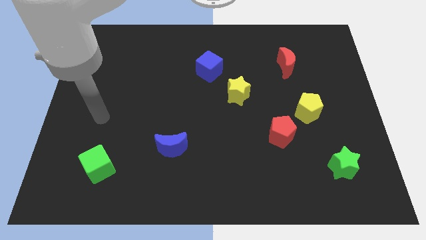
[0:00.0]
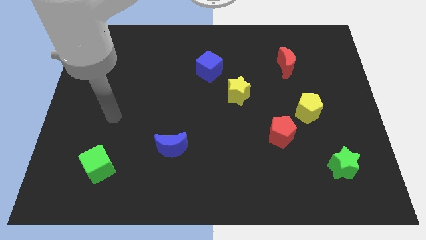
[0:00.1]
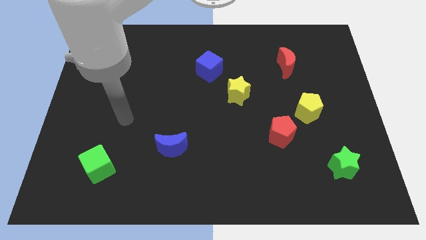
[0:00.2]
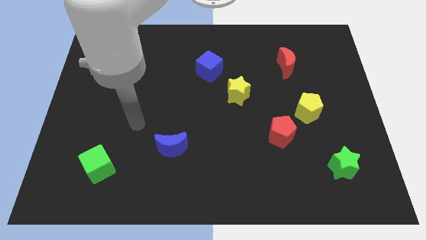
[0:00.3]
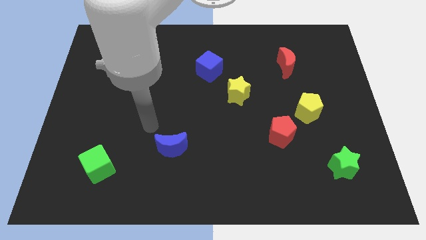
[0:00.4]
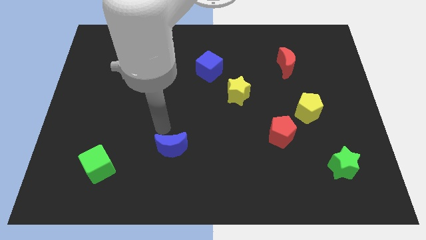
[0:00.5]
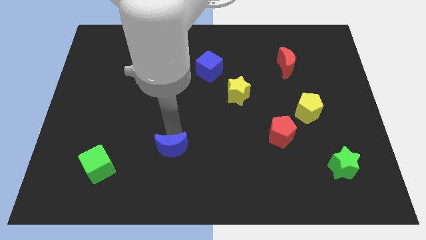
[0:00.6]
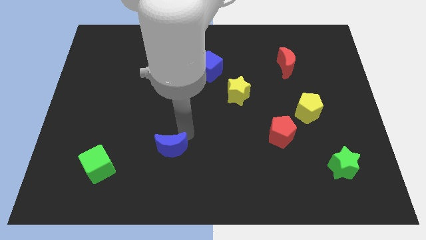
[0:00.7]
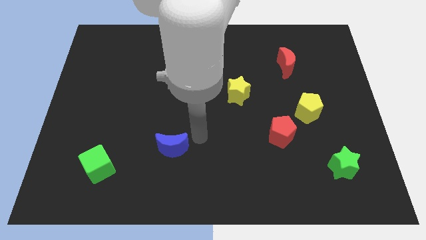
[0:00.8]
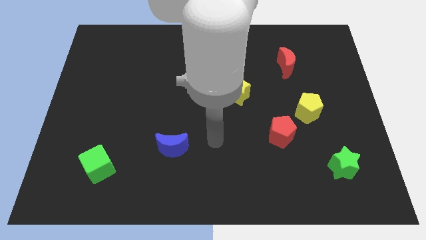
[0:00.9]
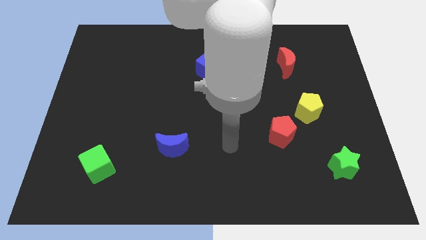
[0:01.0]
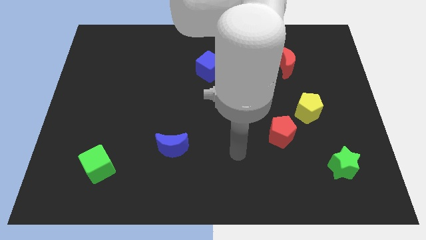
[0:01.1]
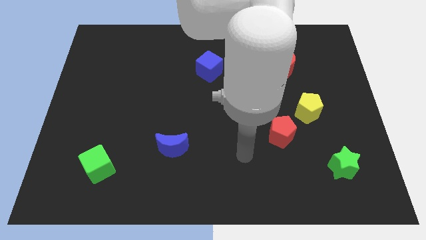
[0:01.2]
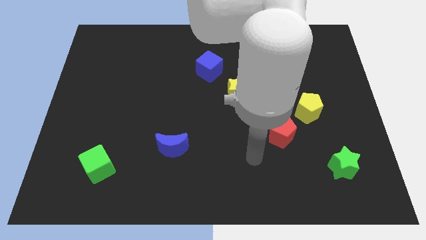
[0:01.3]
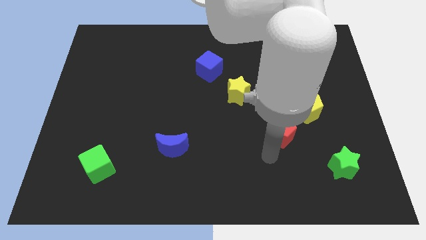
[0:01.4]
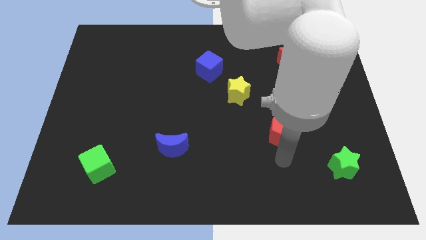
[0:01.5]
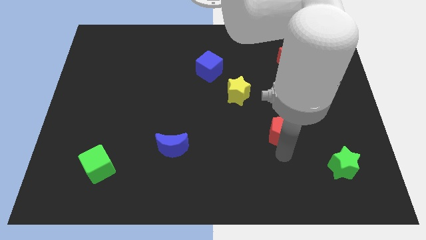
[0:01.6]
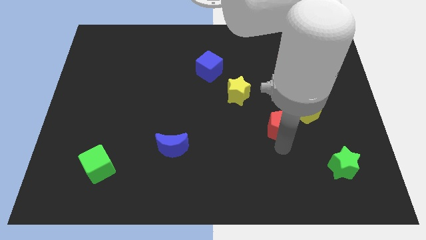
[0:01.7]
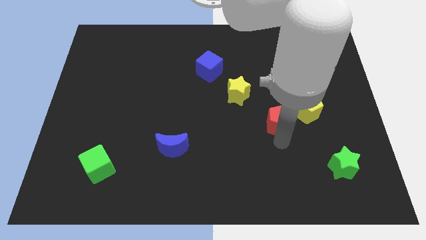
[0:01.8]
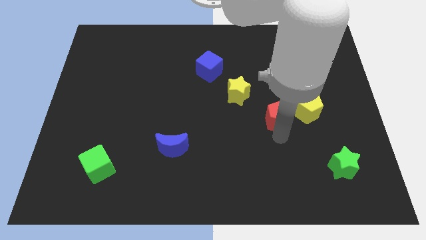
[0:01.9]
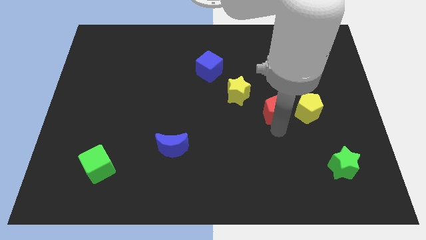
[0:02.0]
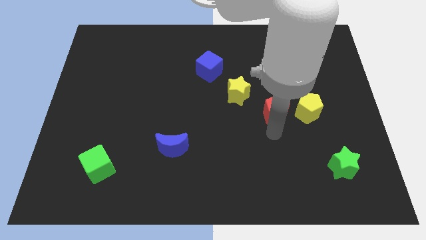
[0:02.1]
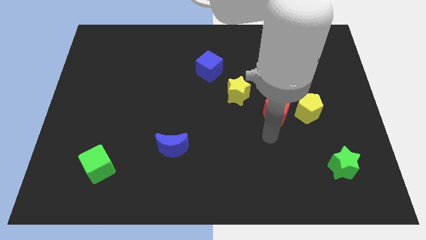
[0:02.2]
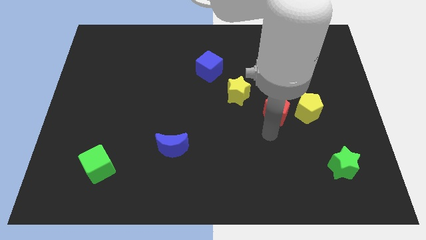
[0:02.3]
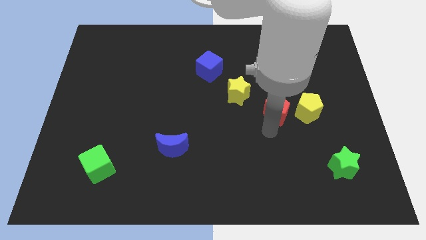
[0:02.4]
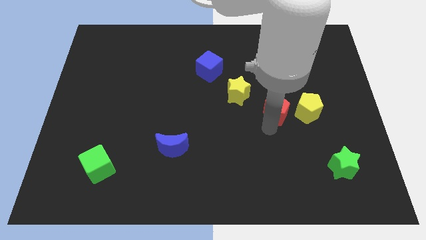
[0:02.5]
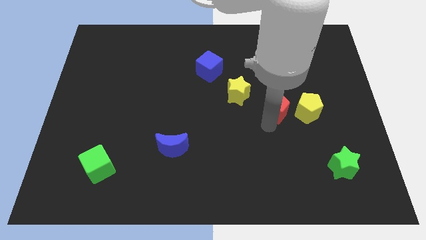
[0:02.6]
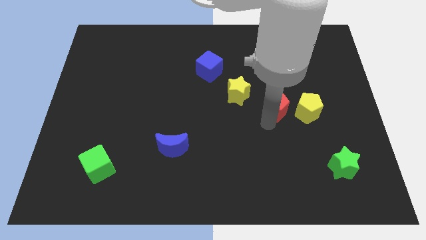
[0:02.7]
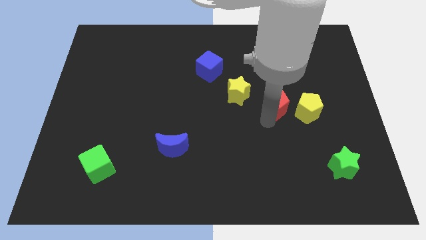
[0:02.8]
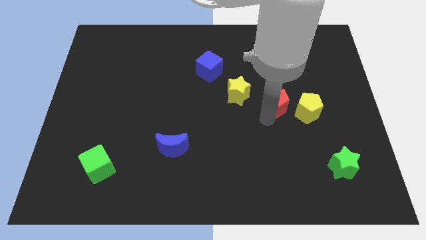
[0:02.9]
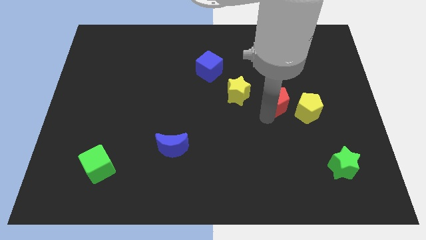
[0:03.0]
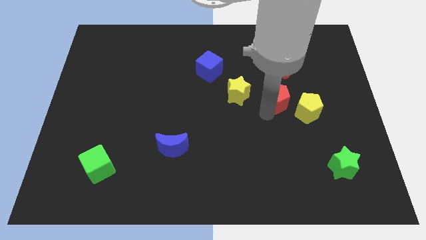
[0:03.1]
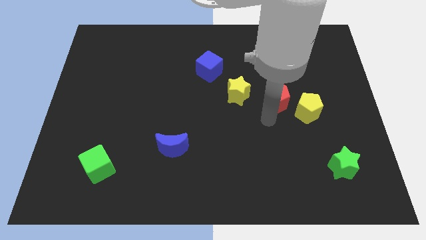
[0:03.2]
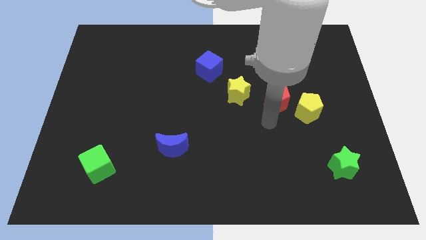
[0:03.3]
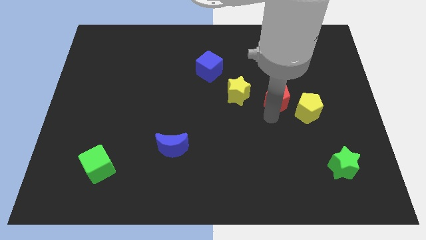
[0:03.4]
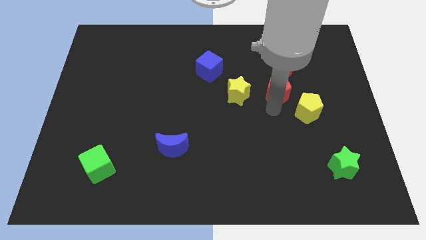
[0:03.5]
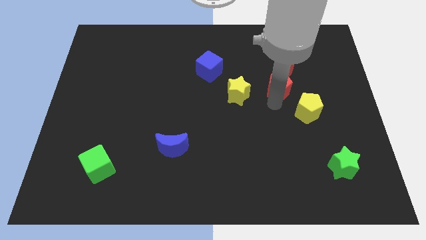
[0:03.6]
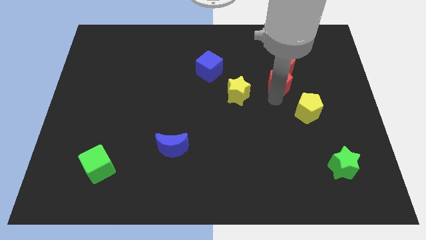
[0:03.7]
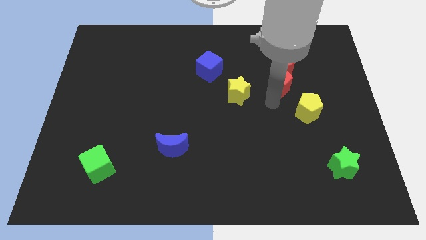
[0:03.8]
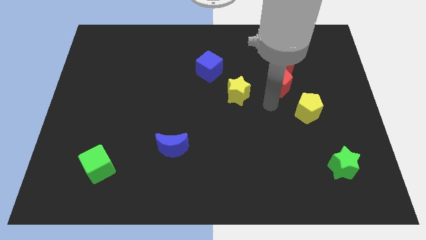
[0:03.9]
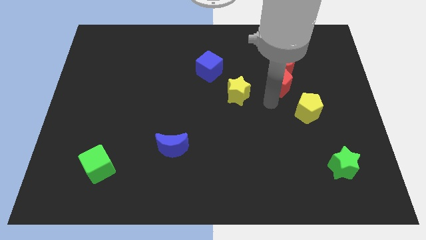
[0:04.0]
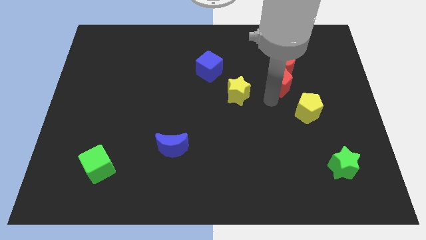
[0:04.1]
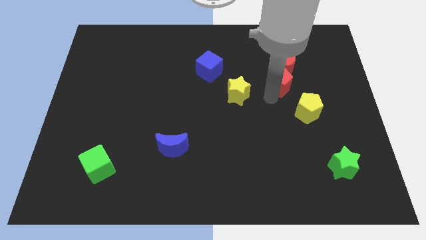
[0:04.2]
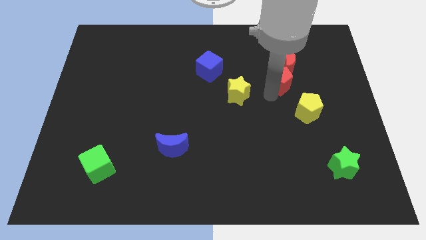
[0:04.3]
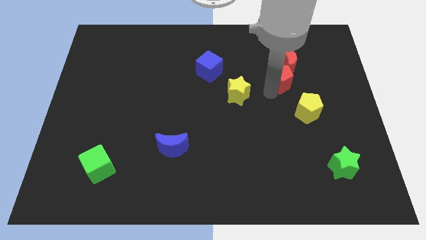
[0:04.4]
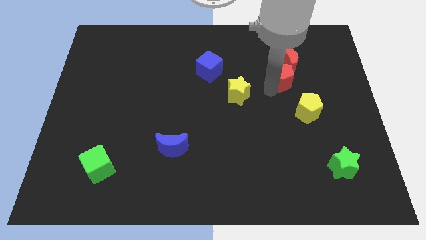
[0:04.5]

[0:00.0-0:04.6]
put the red pentagon to the red moon

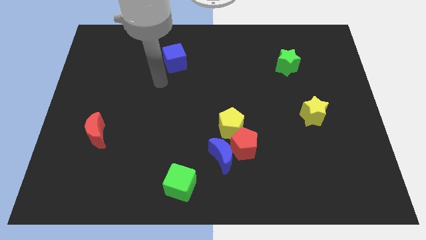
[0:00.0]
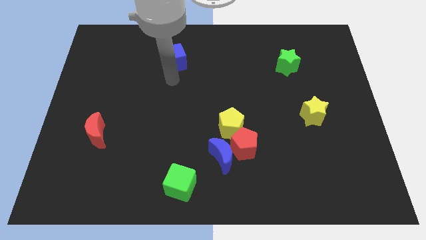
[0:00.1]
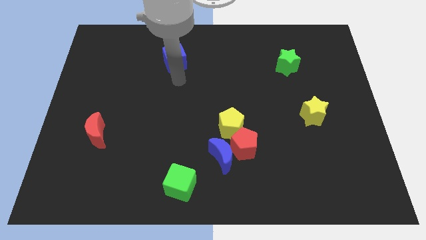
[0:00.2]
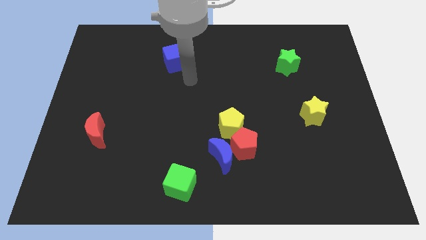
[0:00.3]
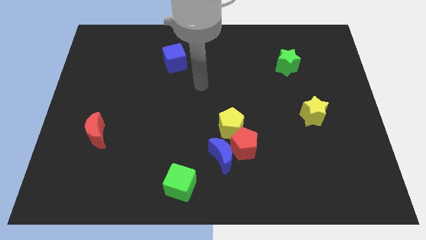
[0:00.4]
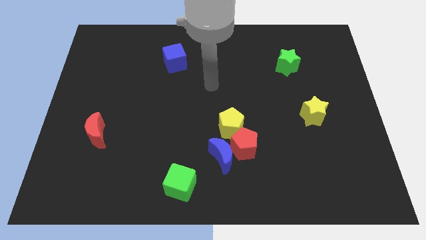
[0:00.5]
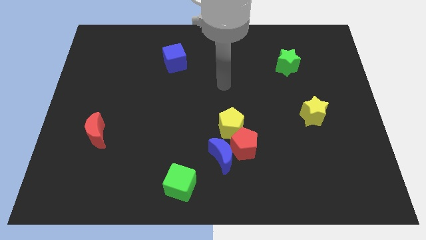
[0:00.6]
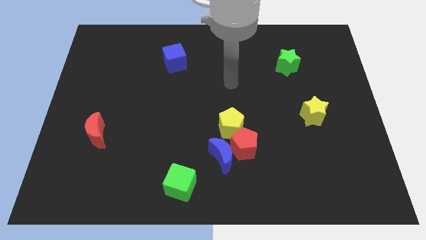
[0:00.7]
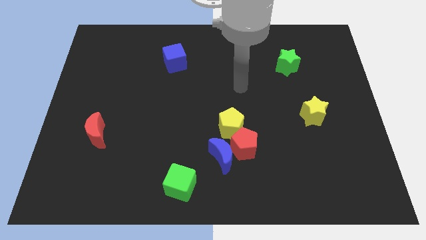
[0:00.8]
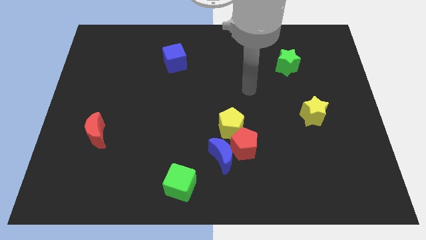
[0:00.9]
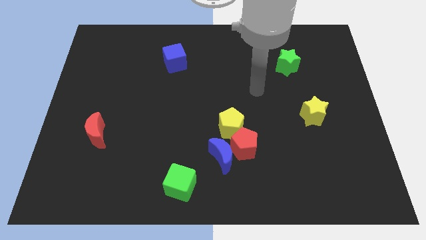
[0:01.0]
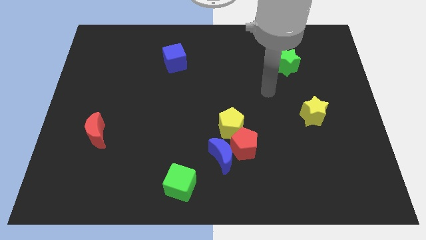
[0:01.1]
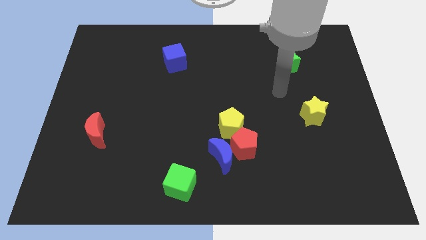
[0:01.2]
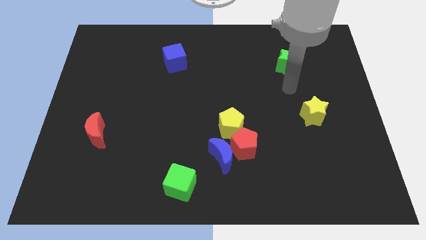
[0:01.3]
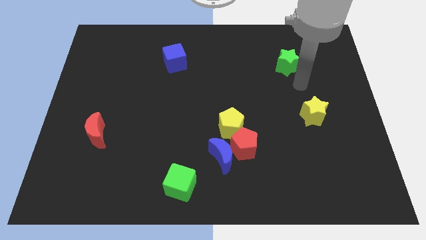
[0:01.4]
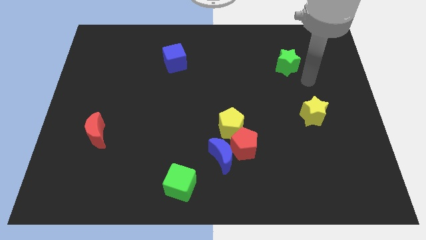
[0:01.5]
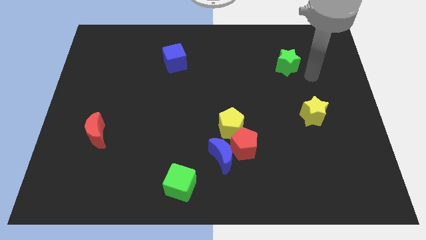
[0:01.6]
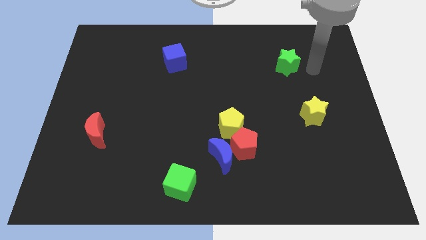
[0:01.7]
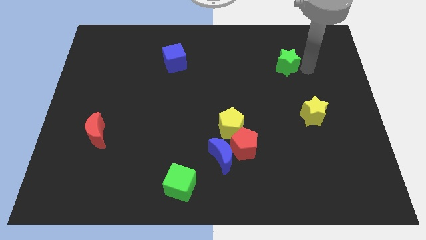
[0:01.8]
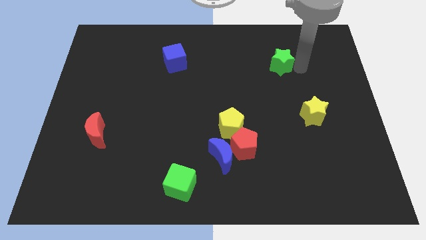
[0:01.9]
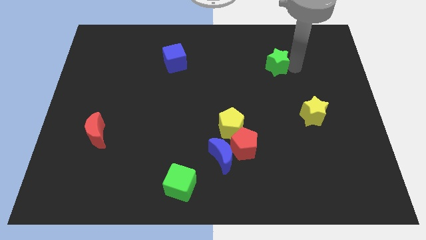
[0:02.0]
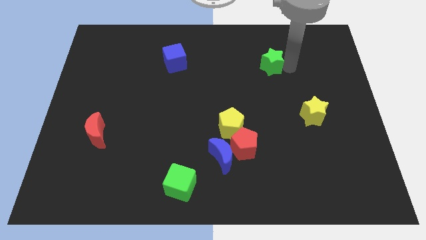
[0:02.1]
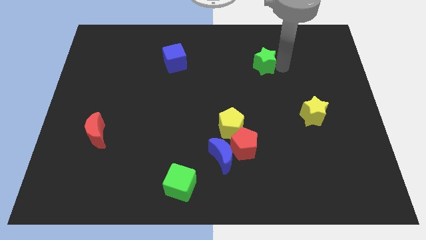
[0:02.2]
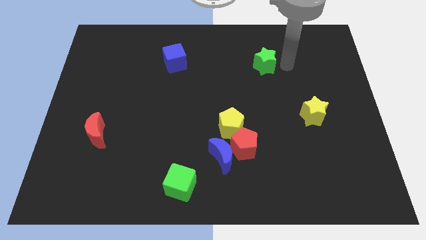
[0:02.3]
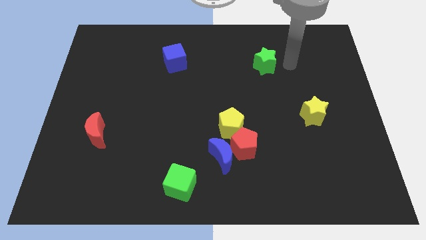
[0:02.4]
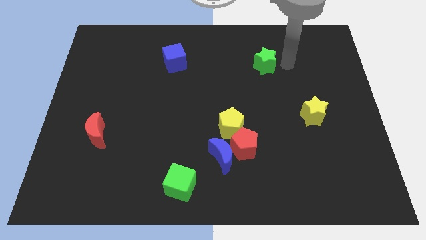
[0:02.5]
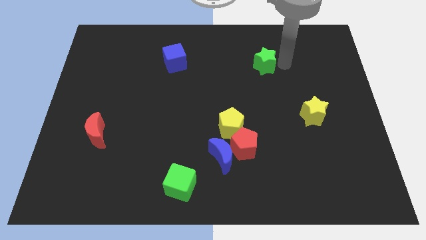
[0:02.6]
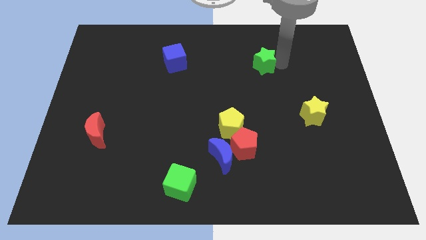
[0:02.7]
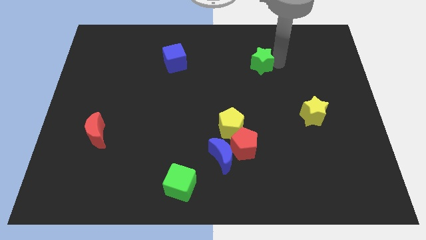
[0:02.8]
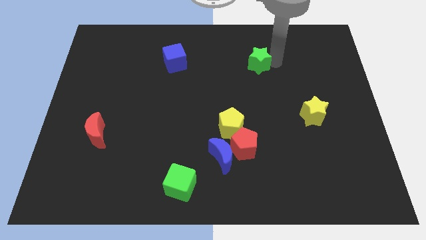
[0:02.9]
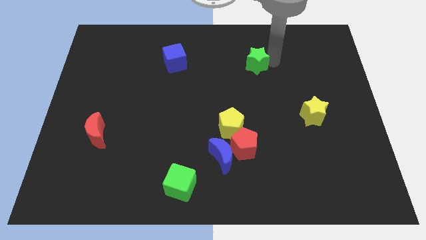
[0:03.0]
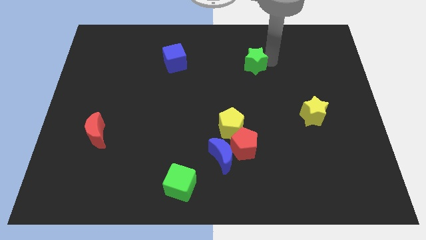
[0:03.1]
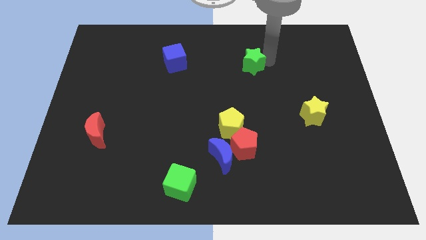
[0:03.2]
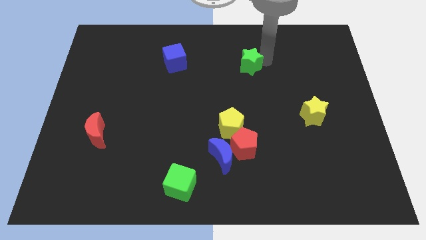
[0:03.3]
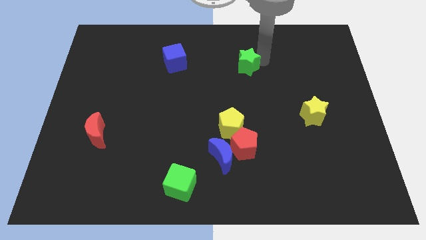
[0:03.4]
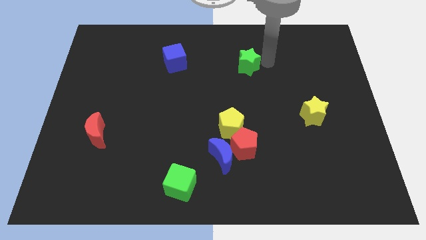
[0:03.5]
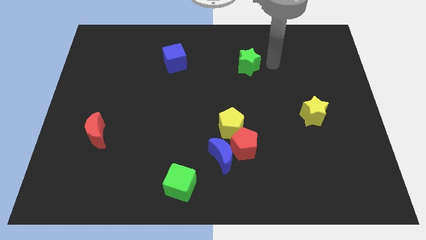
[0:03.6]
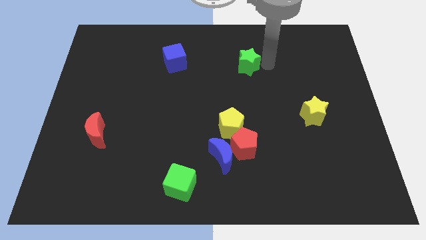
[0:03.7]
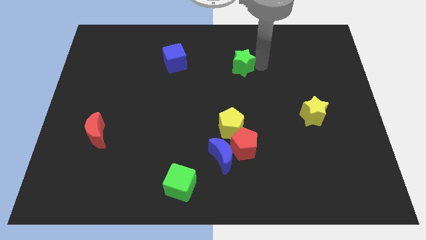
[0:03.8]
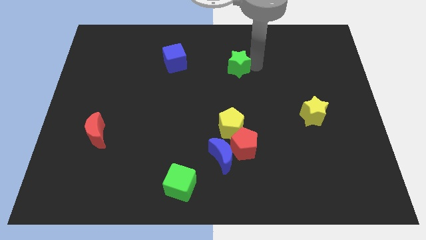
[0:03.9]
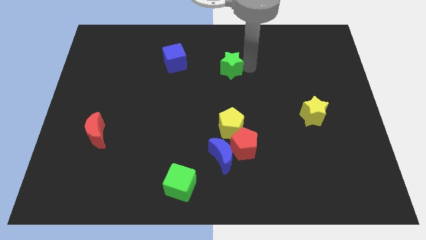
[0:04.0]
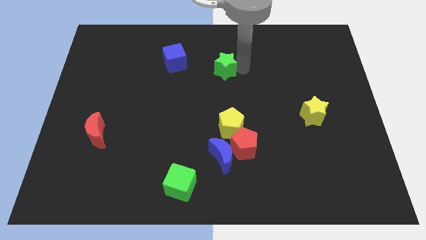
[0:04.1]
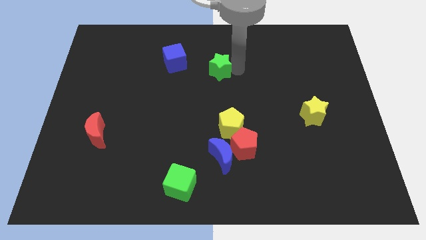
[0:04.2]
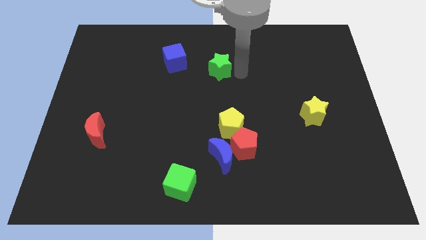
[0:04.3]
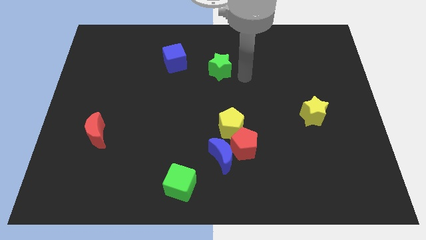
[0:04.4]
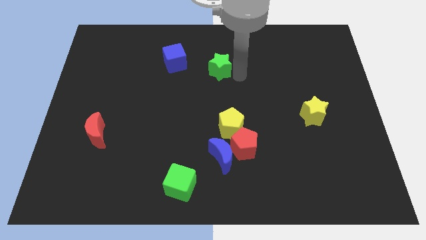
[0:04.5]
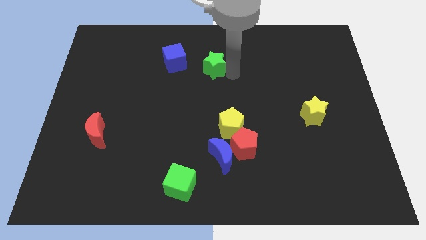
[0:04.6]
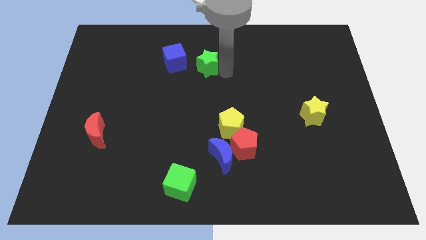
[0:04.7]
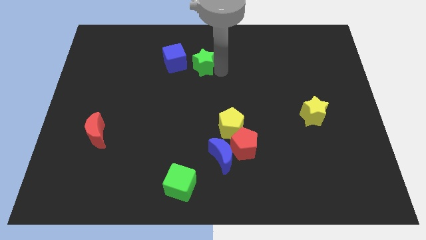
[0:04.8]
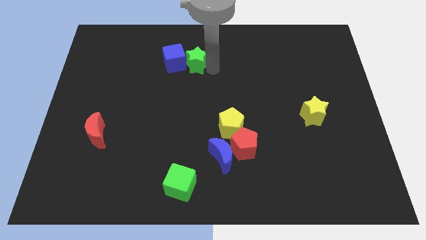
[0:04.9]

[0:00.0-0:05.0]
slide the green star towards the blue cube
